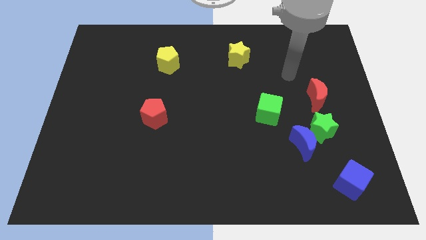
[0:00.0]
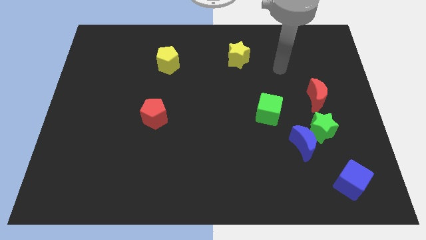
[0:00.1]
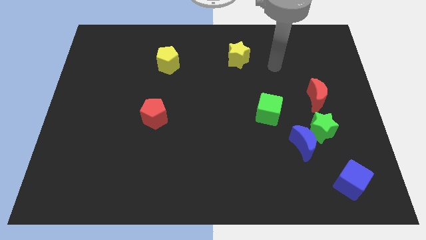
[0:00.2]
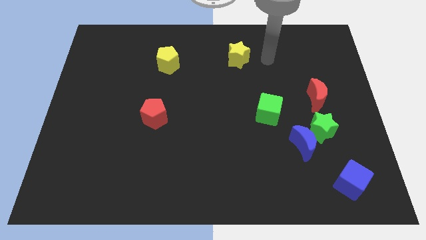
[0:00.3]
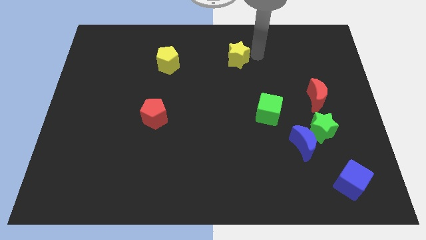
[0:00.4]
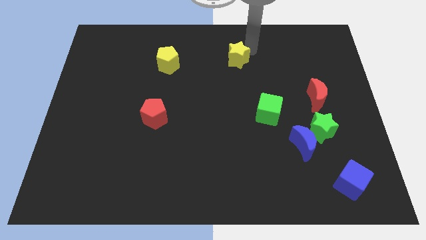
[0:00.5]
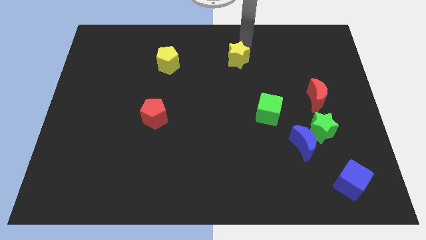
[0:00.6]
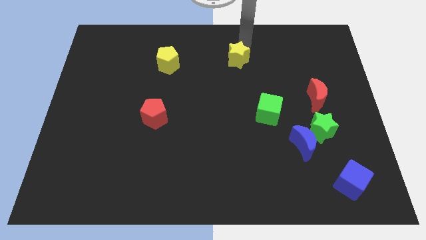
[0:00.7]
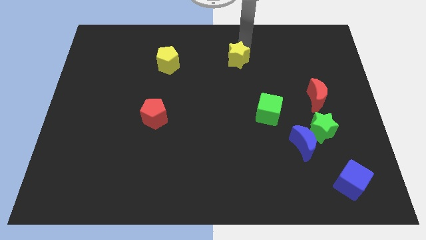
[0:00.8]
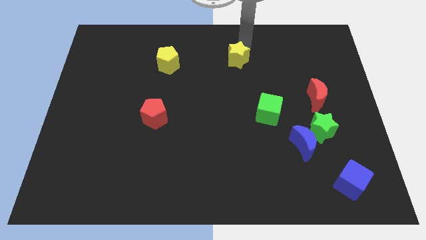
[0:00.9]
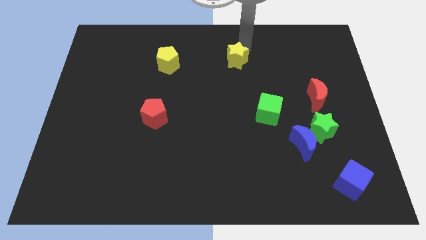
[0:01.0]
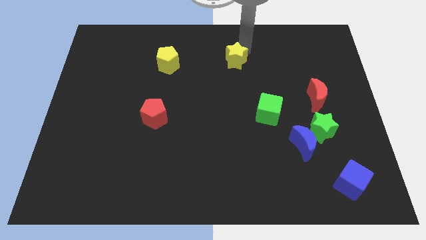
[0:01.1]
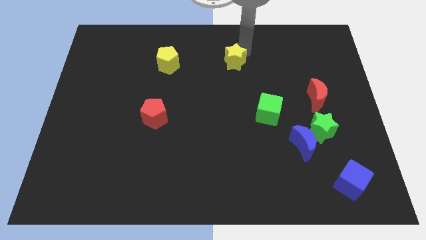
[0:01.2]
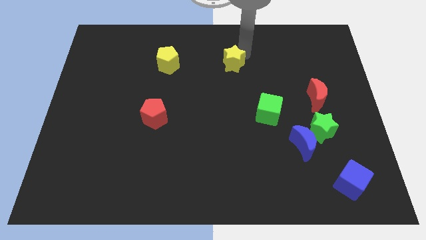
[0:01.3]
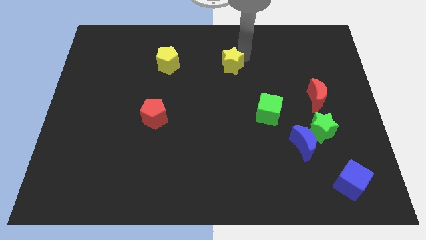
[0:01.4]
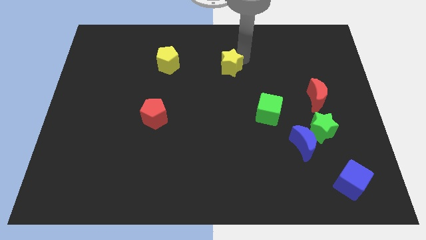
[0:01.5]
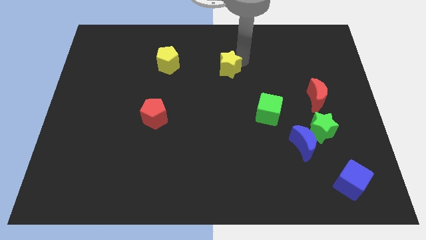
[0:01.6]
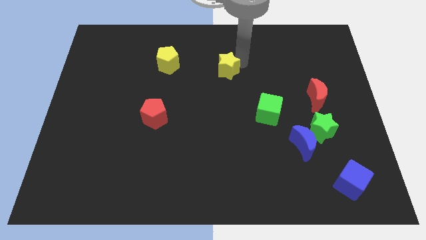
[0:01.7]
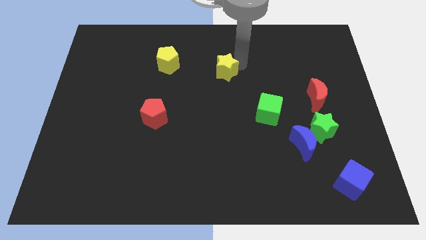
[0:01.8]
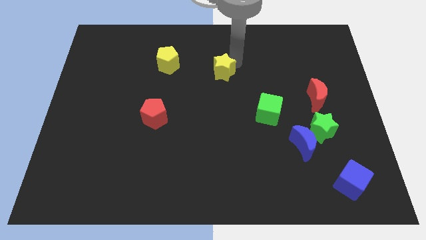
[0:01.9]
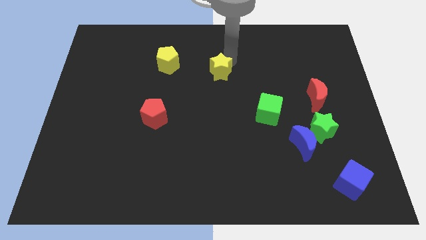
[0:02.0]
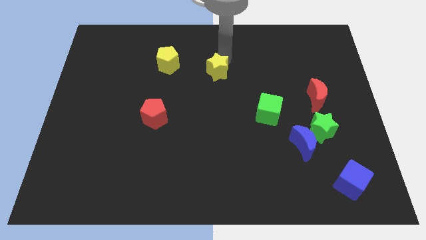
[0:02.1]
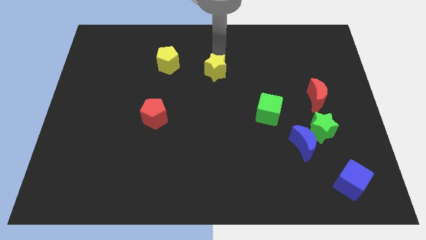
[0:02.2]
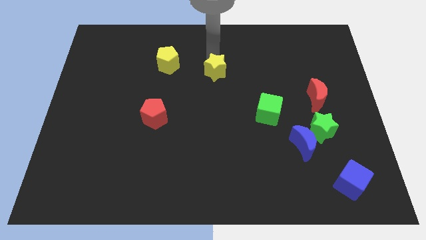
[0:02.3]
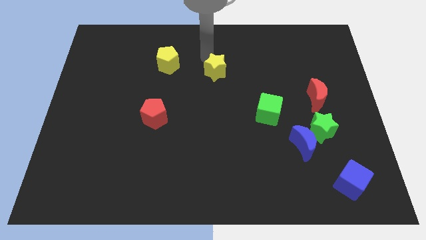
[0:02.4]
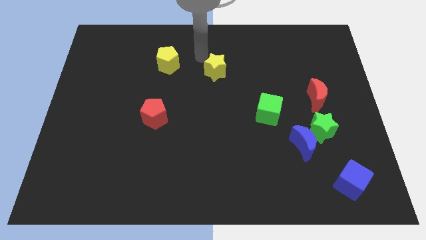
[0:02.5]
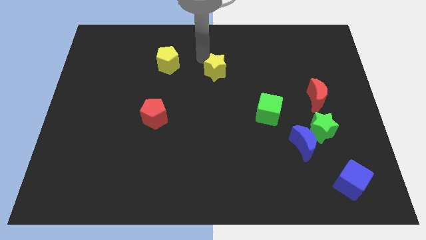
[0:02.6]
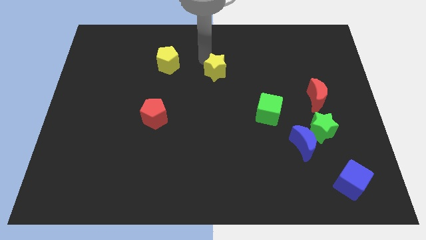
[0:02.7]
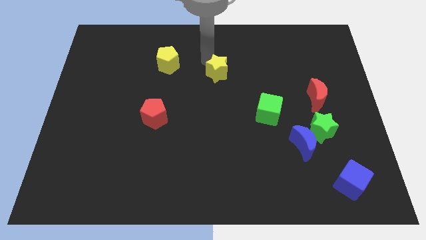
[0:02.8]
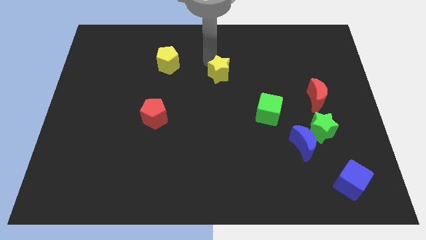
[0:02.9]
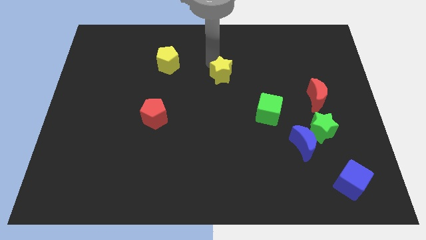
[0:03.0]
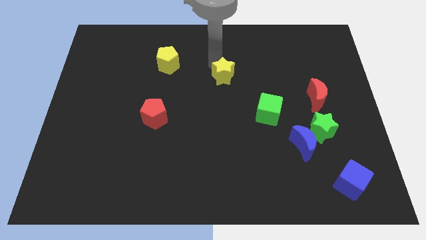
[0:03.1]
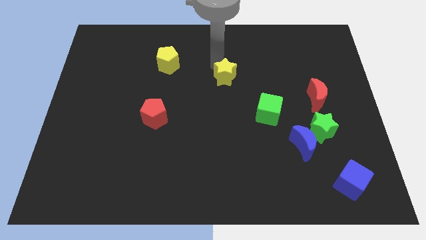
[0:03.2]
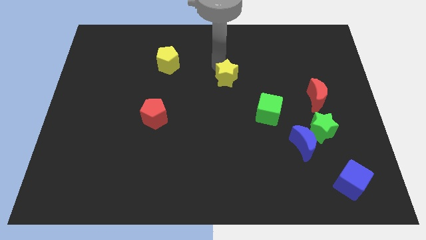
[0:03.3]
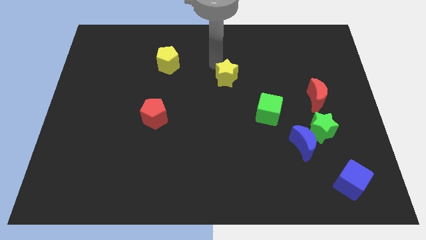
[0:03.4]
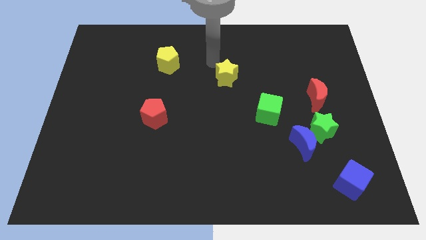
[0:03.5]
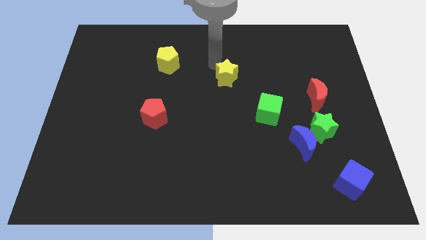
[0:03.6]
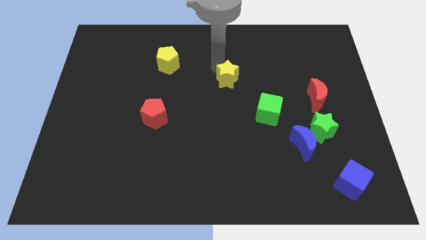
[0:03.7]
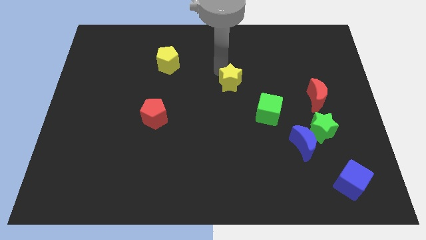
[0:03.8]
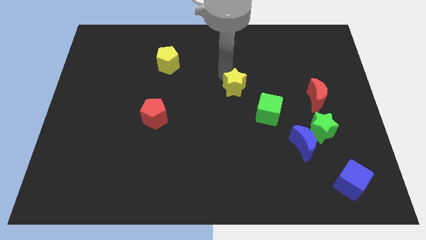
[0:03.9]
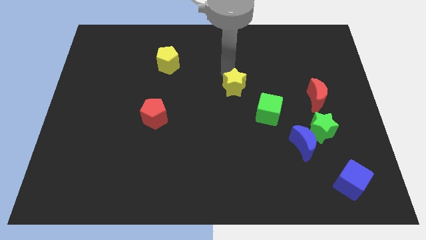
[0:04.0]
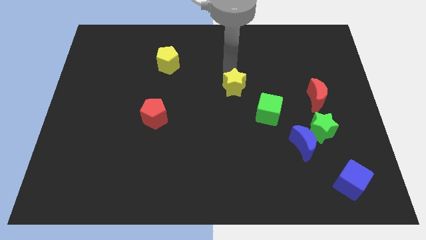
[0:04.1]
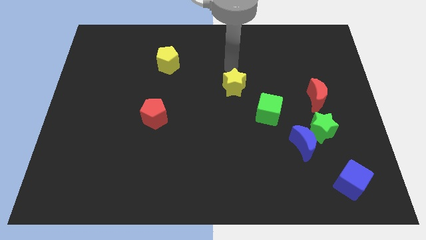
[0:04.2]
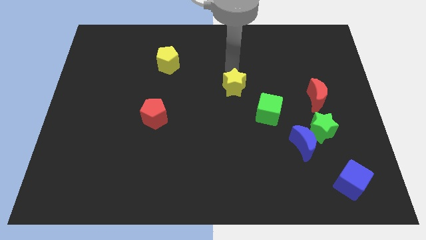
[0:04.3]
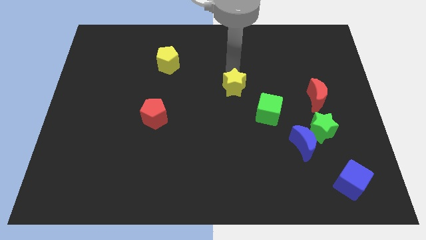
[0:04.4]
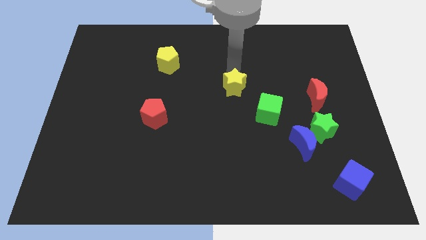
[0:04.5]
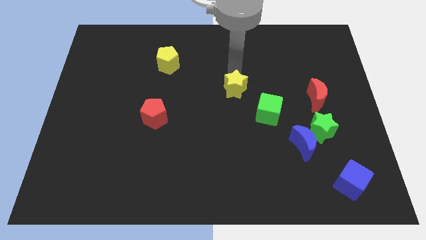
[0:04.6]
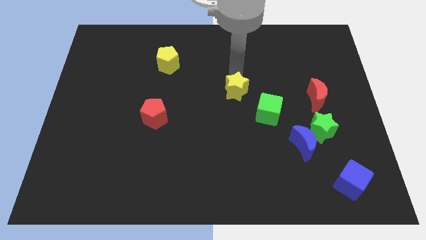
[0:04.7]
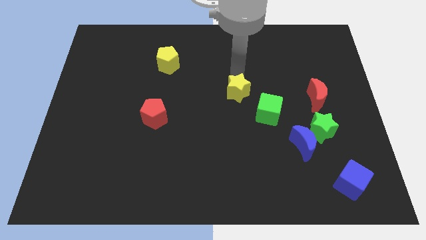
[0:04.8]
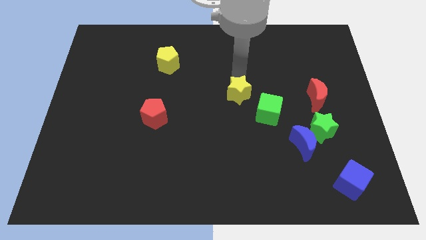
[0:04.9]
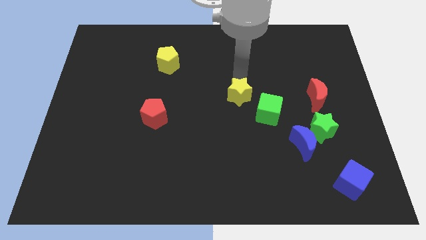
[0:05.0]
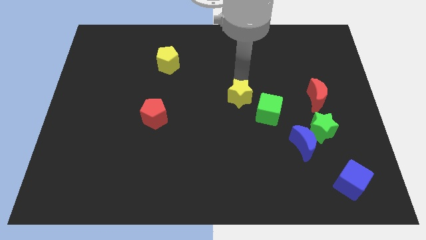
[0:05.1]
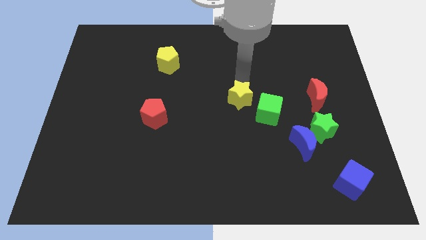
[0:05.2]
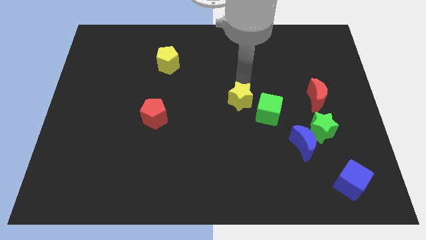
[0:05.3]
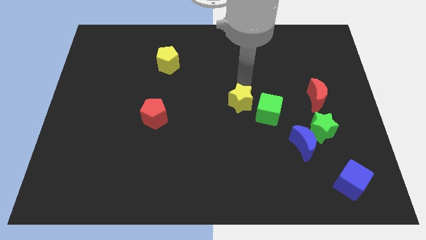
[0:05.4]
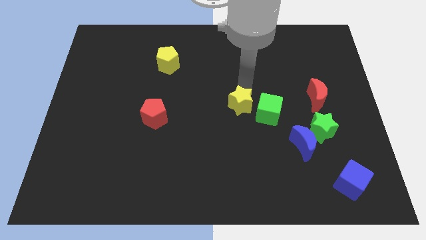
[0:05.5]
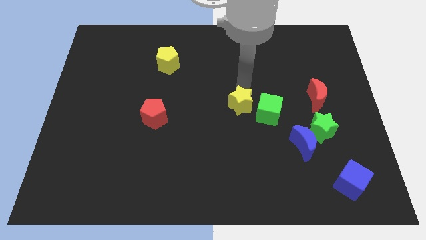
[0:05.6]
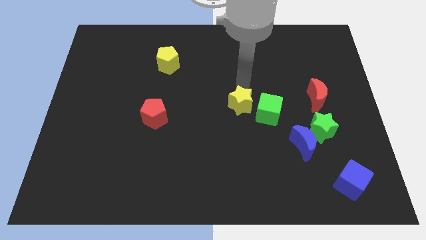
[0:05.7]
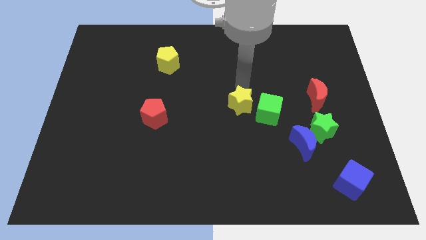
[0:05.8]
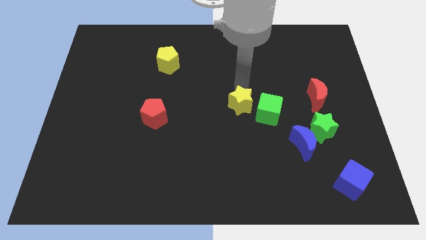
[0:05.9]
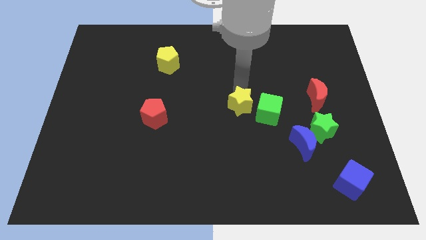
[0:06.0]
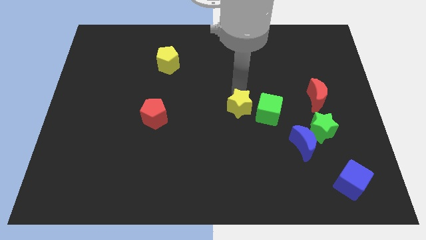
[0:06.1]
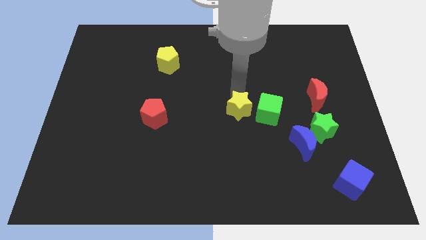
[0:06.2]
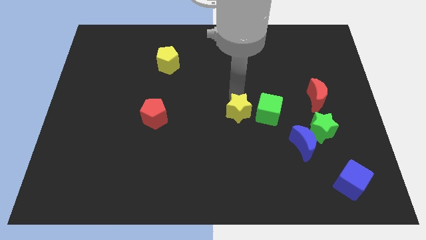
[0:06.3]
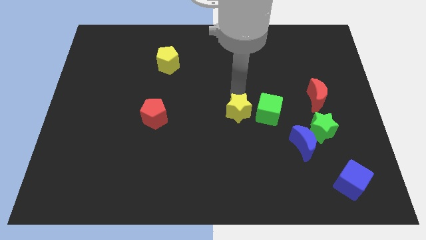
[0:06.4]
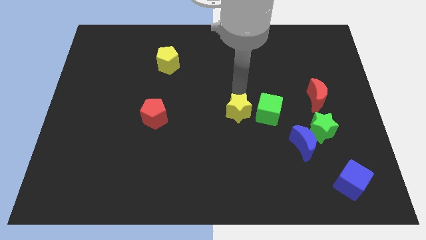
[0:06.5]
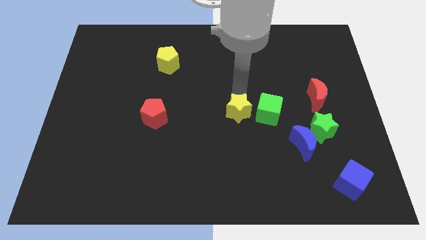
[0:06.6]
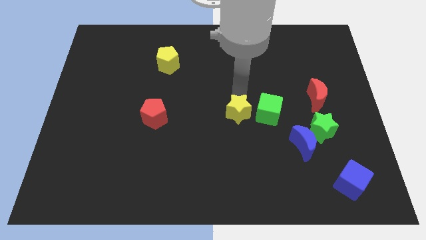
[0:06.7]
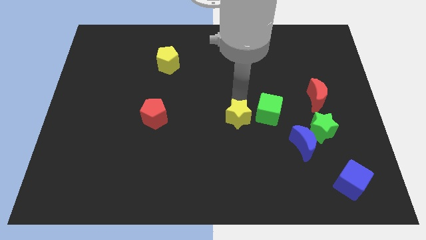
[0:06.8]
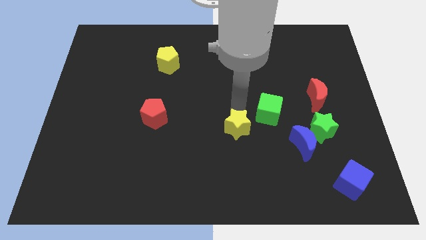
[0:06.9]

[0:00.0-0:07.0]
move the yellow star down

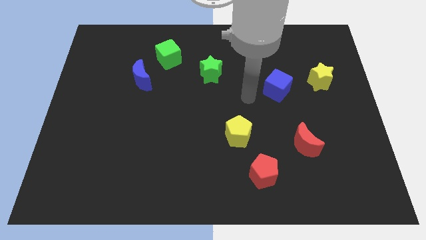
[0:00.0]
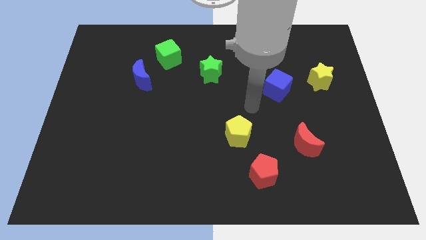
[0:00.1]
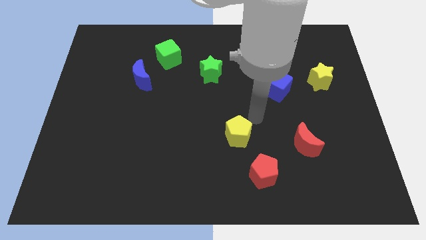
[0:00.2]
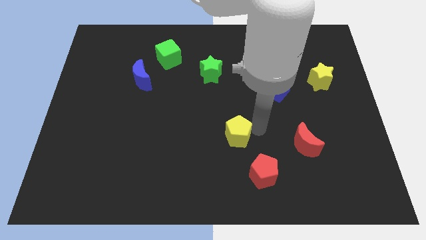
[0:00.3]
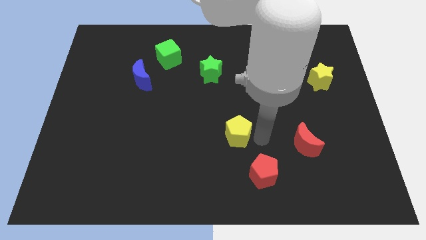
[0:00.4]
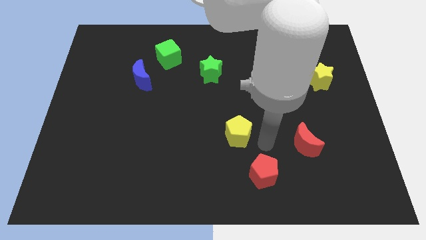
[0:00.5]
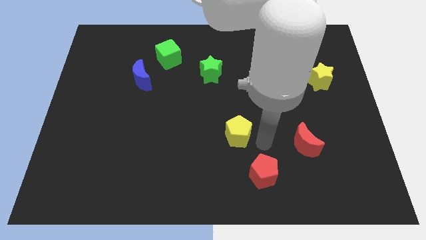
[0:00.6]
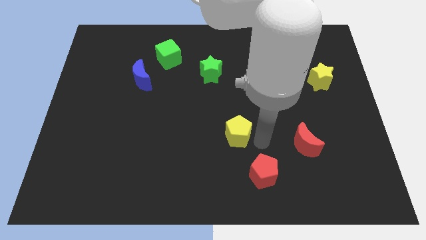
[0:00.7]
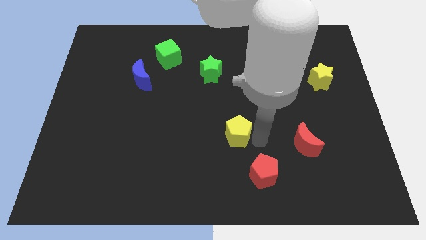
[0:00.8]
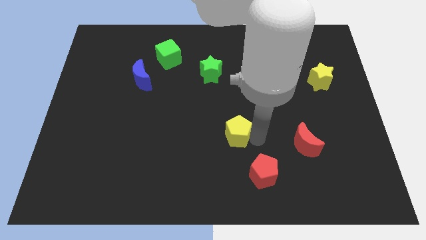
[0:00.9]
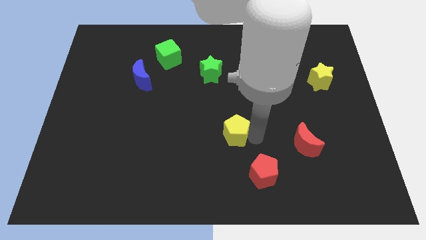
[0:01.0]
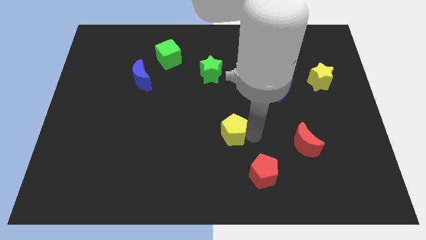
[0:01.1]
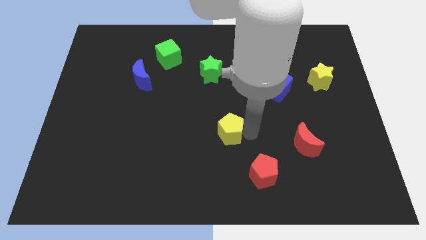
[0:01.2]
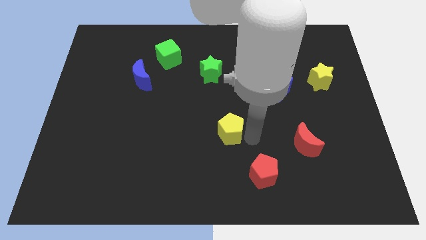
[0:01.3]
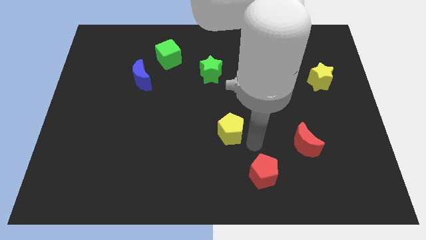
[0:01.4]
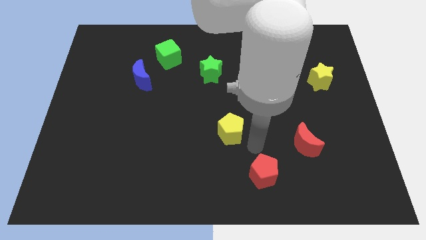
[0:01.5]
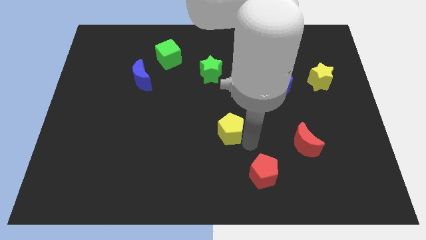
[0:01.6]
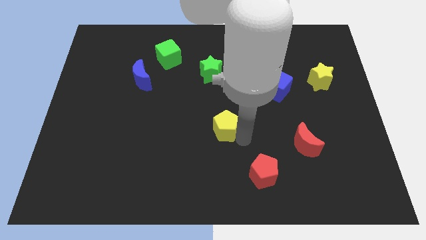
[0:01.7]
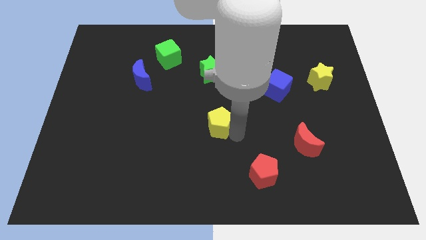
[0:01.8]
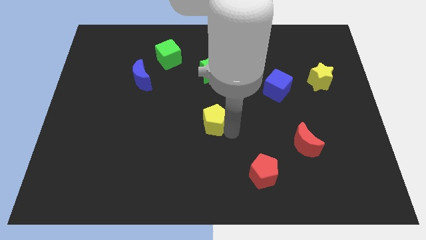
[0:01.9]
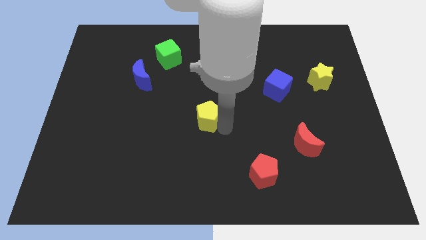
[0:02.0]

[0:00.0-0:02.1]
slide the yellow pentagon a bit upwards and left
